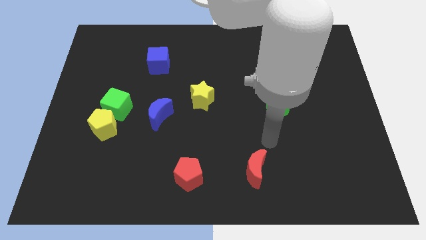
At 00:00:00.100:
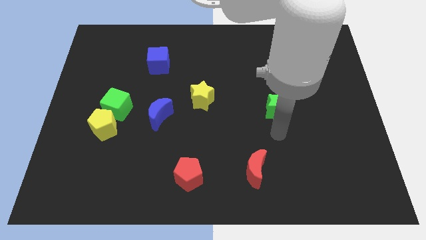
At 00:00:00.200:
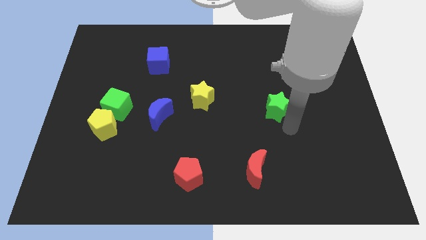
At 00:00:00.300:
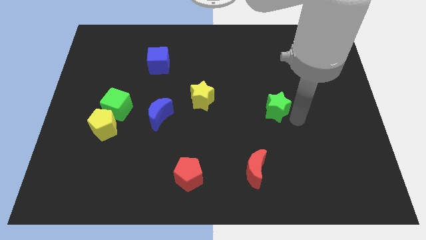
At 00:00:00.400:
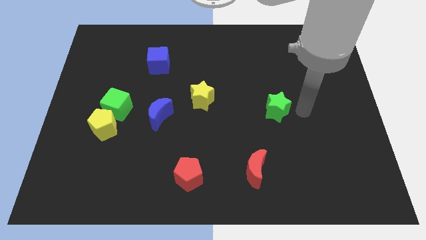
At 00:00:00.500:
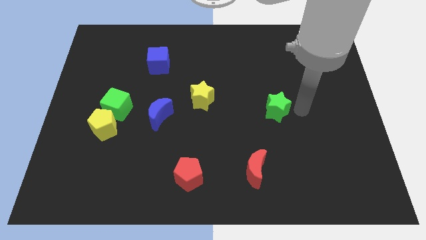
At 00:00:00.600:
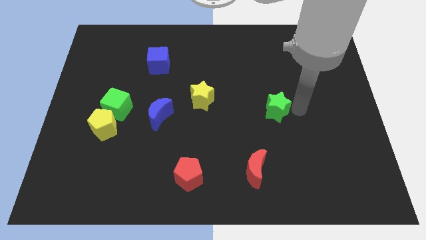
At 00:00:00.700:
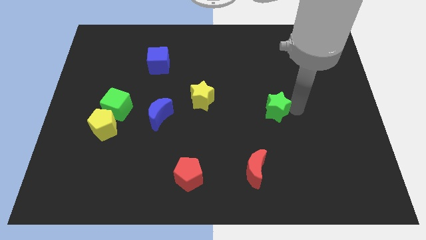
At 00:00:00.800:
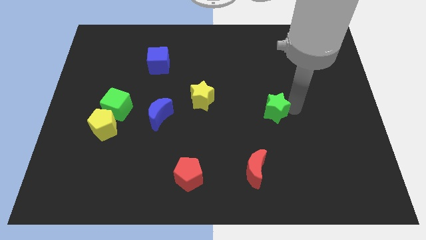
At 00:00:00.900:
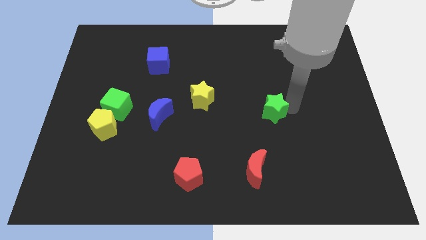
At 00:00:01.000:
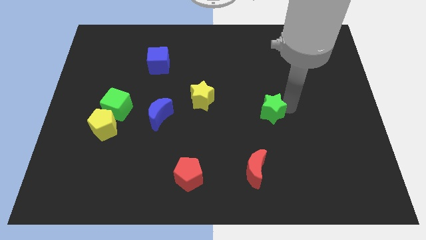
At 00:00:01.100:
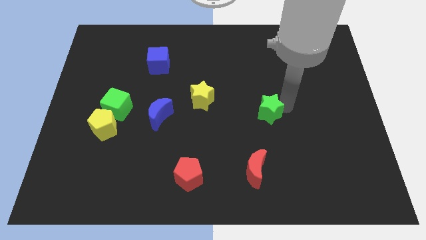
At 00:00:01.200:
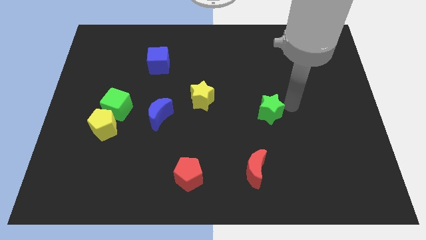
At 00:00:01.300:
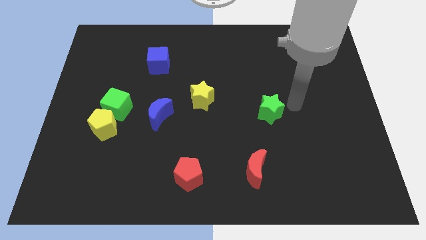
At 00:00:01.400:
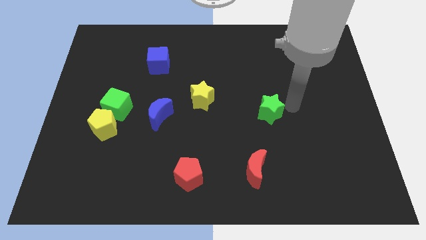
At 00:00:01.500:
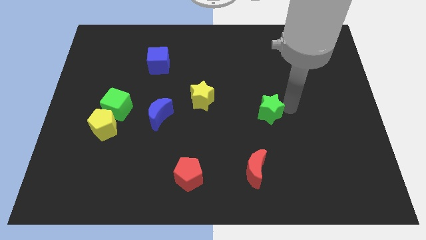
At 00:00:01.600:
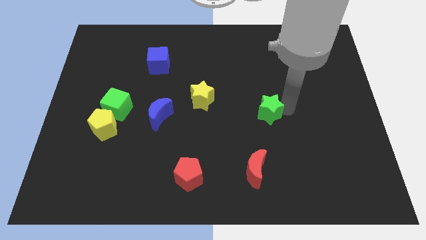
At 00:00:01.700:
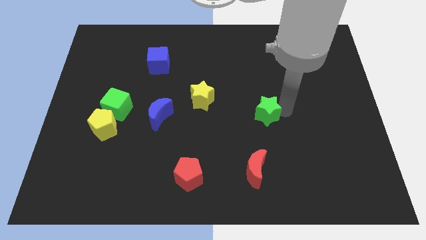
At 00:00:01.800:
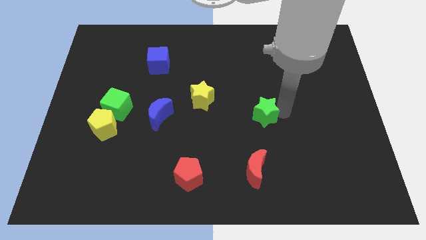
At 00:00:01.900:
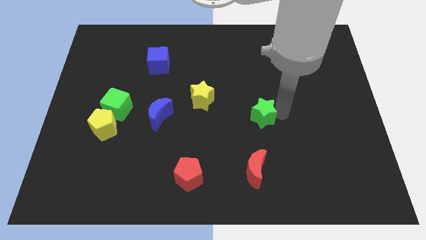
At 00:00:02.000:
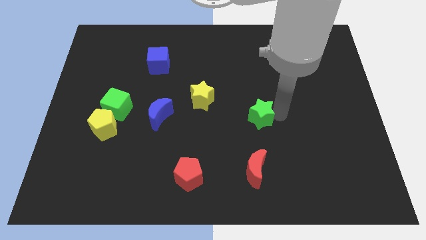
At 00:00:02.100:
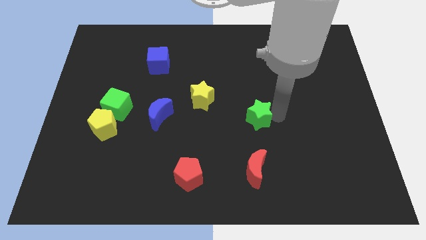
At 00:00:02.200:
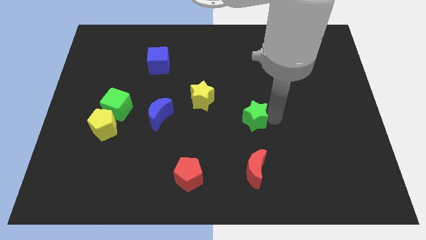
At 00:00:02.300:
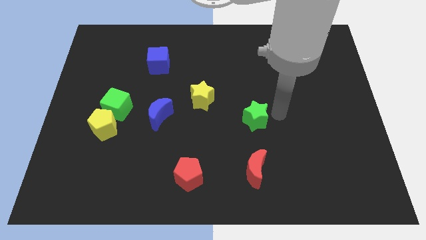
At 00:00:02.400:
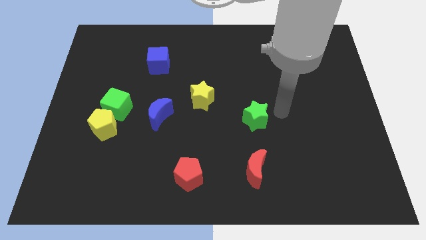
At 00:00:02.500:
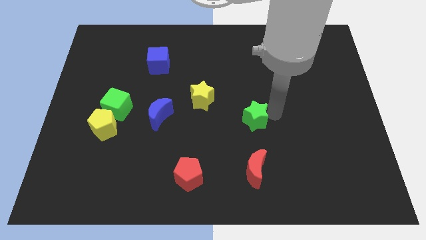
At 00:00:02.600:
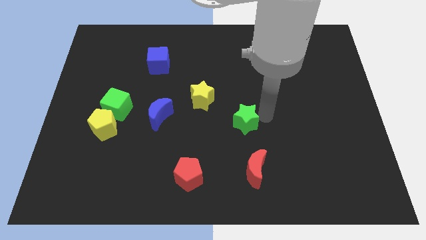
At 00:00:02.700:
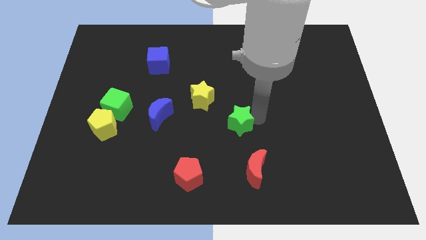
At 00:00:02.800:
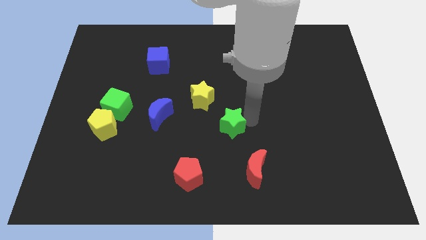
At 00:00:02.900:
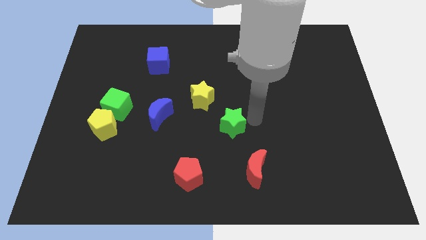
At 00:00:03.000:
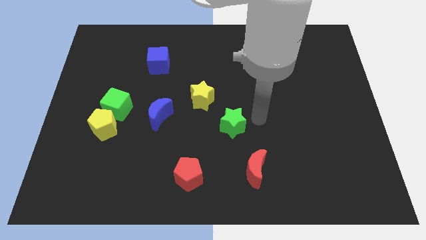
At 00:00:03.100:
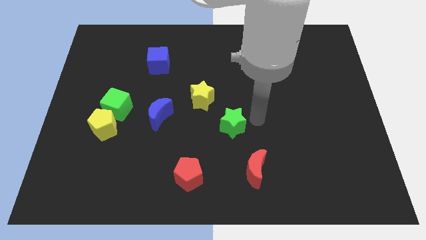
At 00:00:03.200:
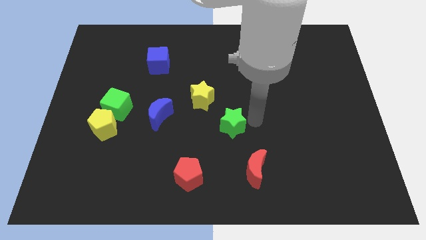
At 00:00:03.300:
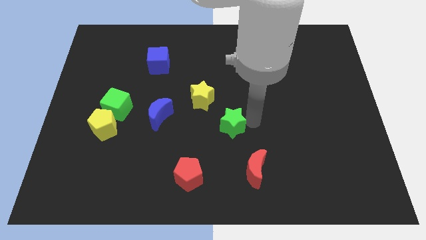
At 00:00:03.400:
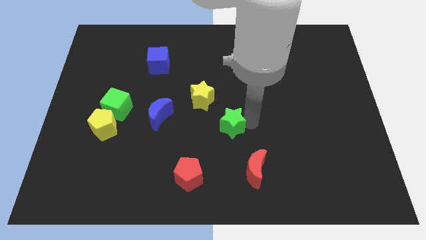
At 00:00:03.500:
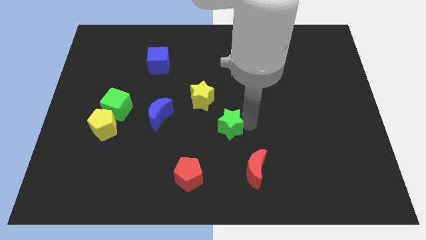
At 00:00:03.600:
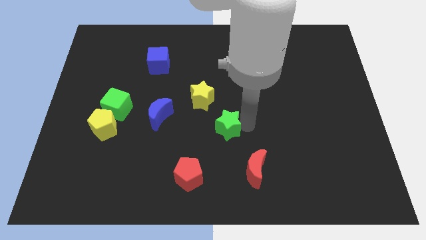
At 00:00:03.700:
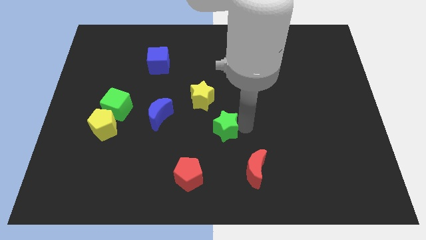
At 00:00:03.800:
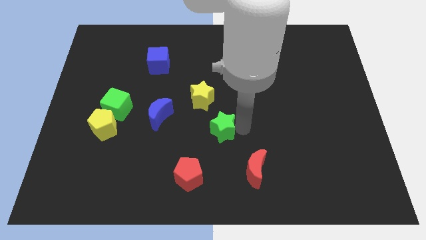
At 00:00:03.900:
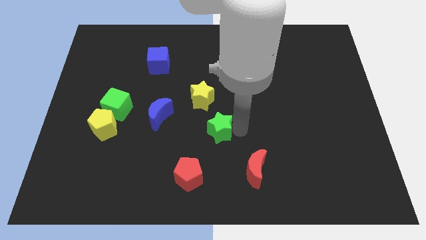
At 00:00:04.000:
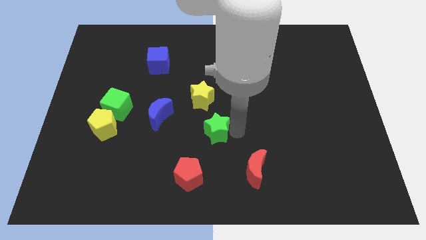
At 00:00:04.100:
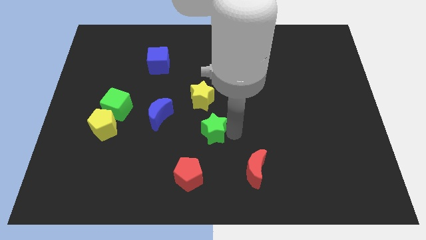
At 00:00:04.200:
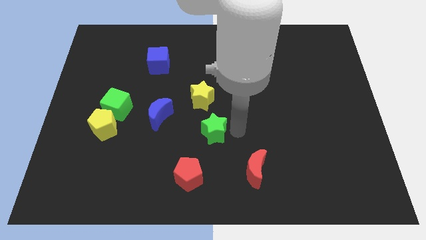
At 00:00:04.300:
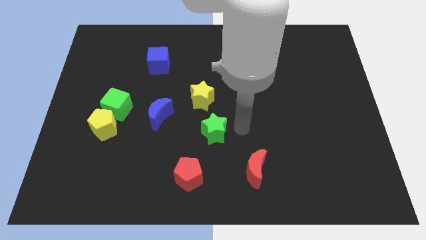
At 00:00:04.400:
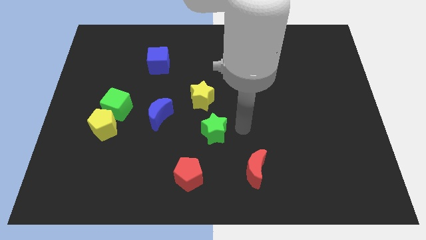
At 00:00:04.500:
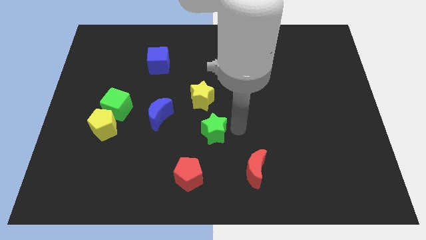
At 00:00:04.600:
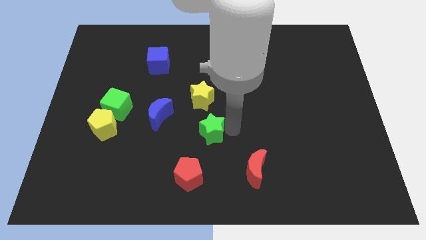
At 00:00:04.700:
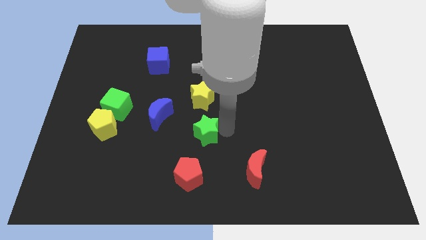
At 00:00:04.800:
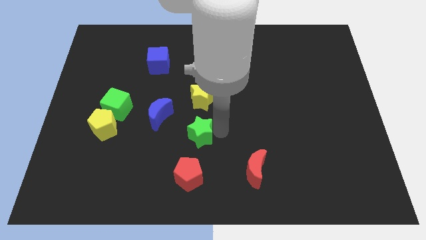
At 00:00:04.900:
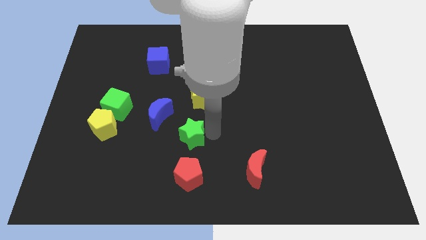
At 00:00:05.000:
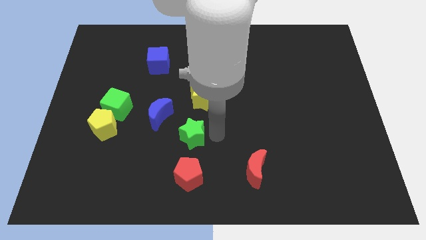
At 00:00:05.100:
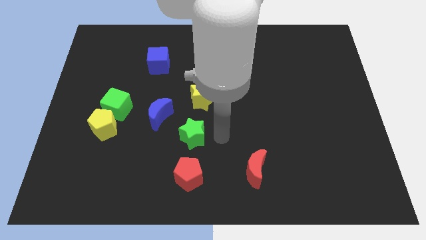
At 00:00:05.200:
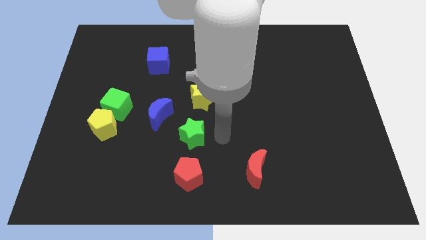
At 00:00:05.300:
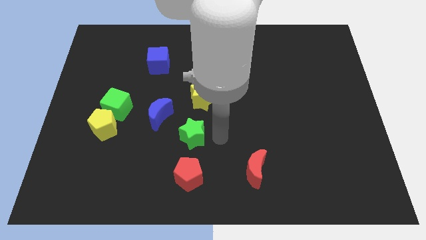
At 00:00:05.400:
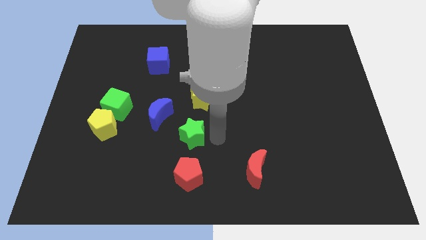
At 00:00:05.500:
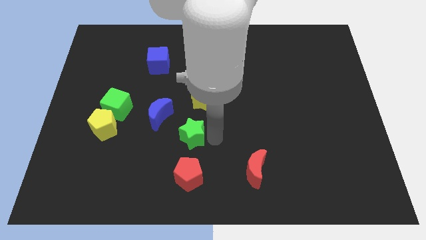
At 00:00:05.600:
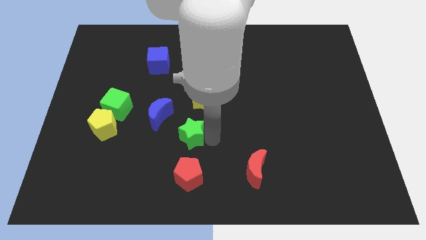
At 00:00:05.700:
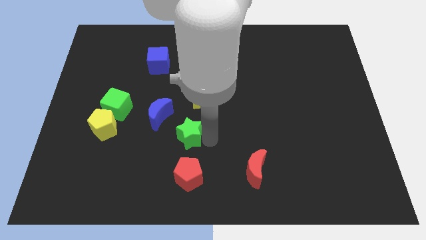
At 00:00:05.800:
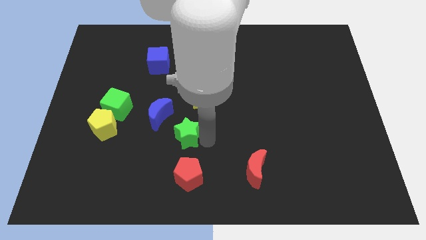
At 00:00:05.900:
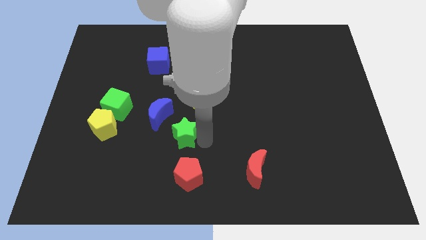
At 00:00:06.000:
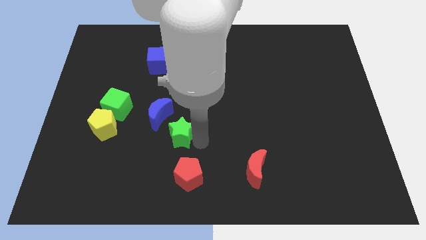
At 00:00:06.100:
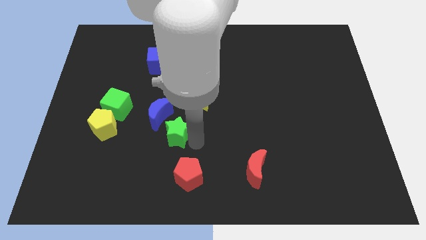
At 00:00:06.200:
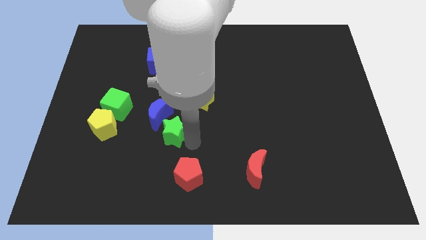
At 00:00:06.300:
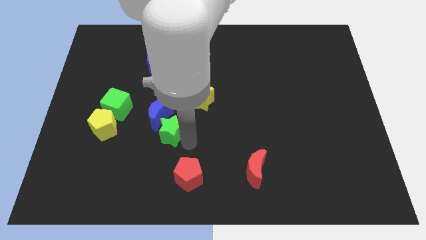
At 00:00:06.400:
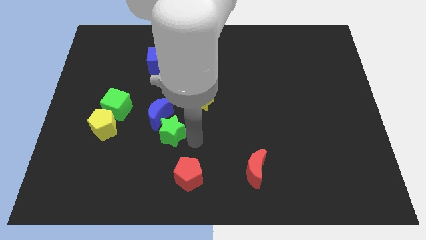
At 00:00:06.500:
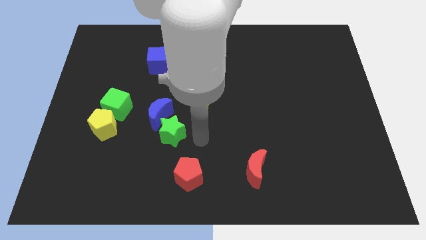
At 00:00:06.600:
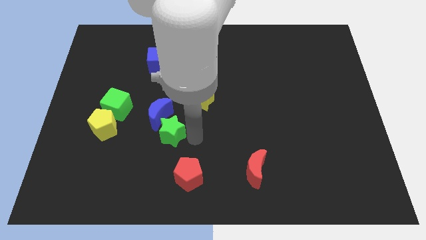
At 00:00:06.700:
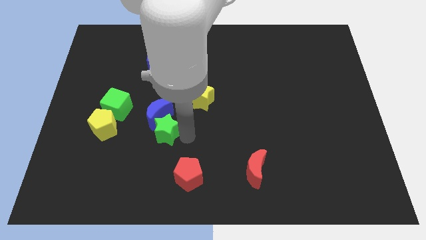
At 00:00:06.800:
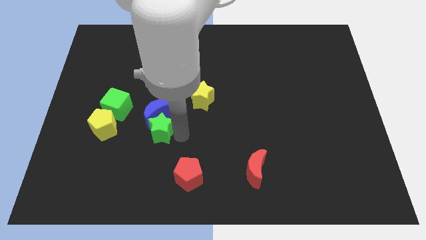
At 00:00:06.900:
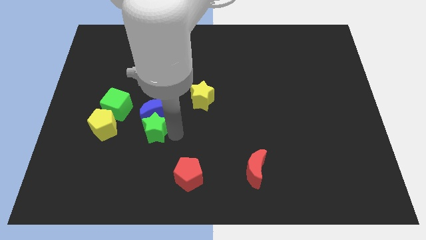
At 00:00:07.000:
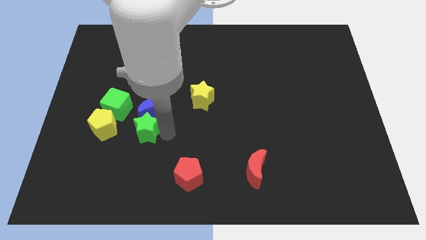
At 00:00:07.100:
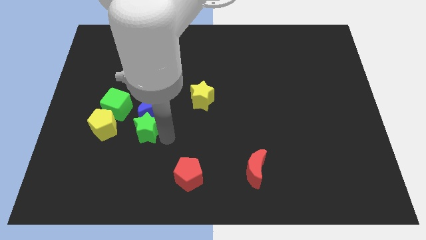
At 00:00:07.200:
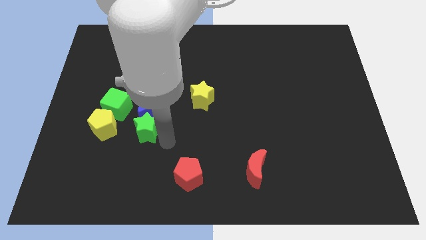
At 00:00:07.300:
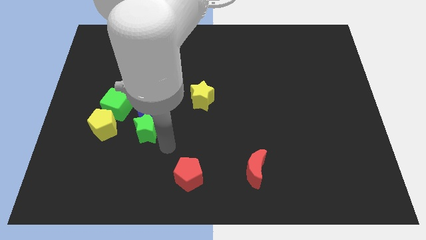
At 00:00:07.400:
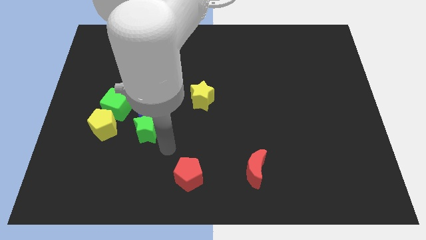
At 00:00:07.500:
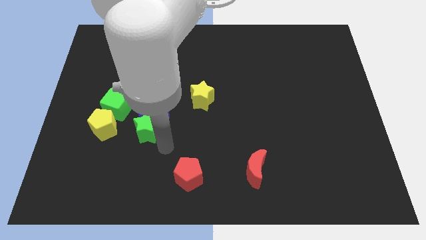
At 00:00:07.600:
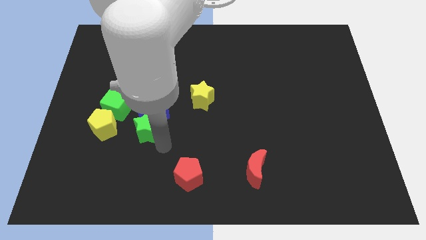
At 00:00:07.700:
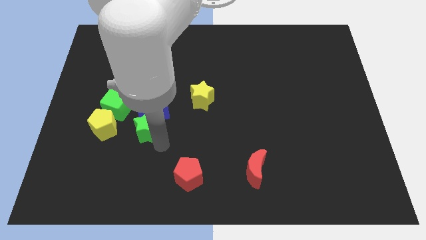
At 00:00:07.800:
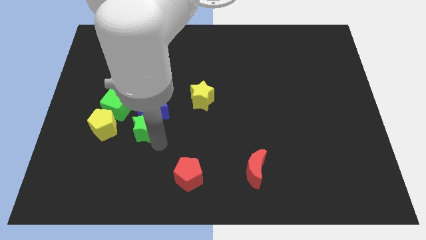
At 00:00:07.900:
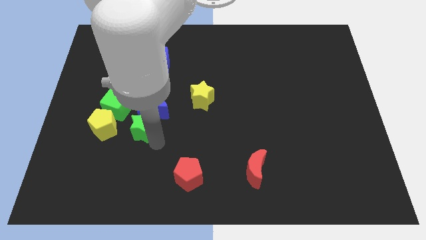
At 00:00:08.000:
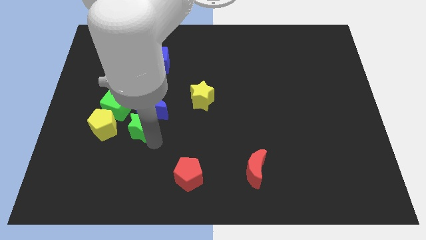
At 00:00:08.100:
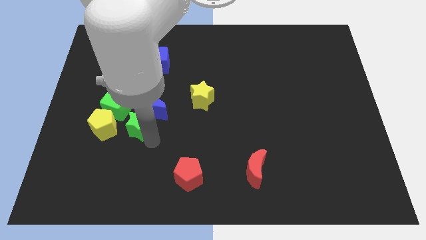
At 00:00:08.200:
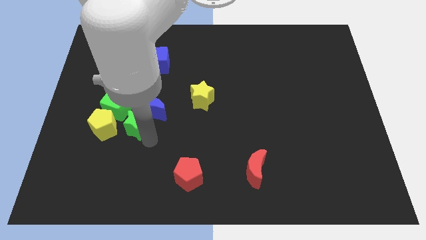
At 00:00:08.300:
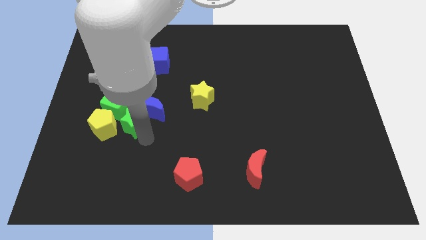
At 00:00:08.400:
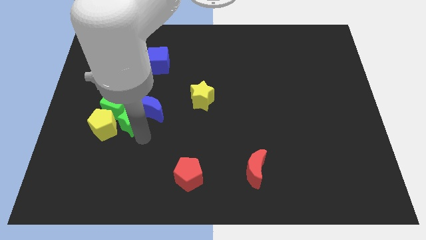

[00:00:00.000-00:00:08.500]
move the green star next to the green cube
